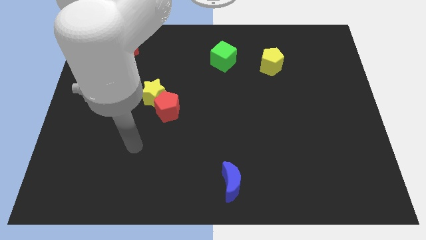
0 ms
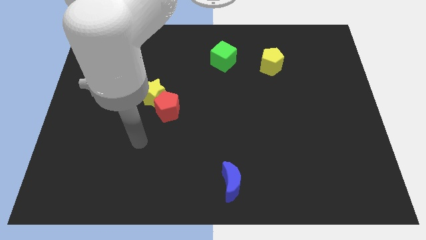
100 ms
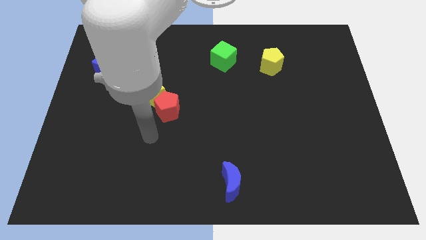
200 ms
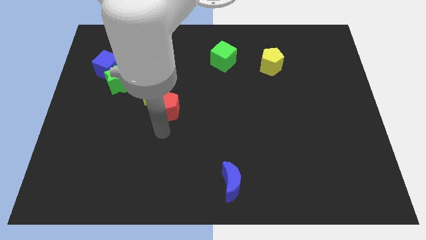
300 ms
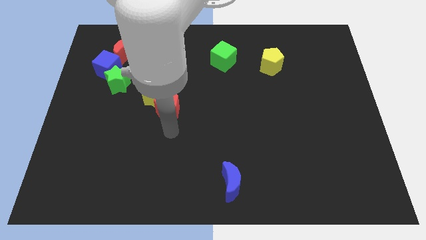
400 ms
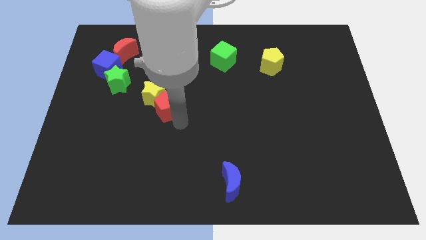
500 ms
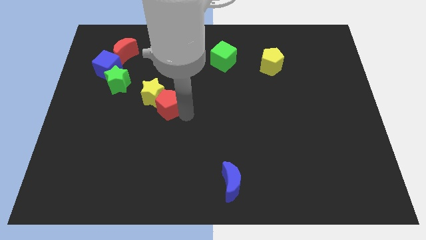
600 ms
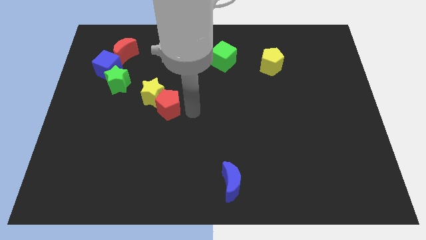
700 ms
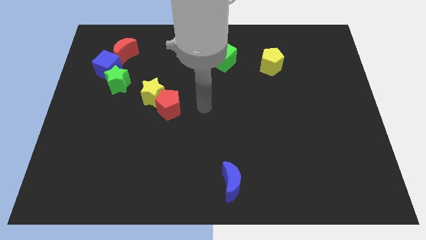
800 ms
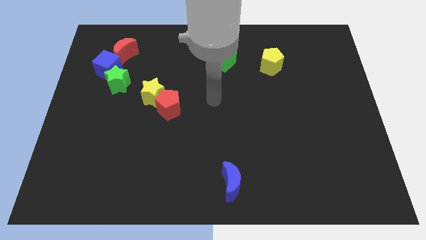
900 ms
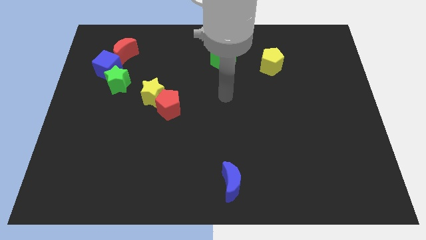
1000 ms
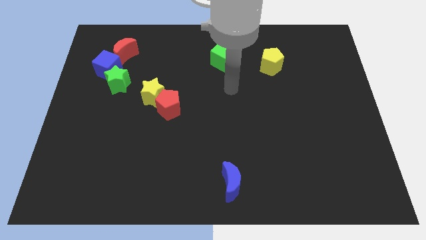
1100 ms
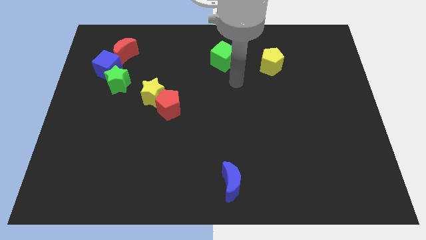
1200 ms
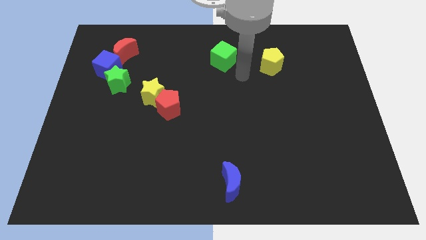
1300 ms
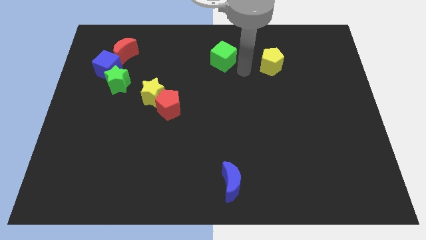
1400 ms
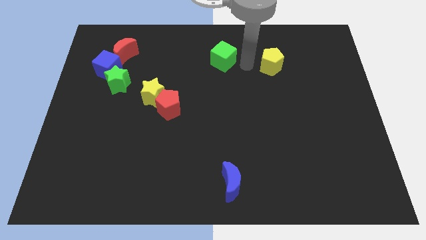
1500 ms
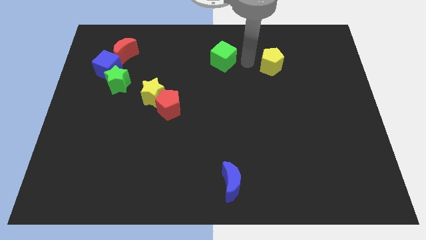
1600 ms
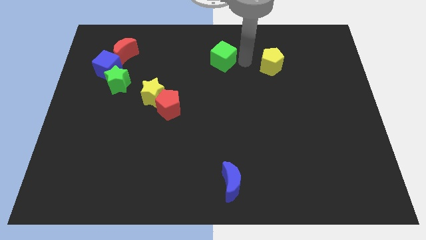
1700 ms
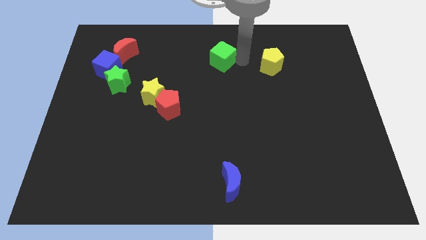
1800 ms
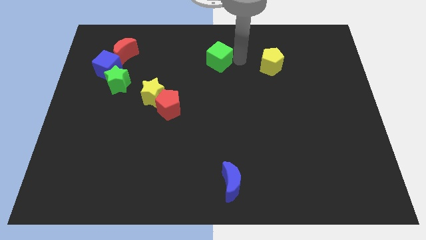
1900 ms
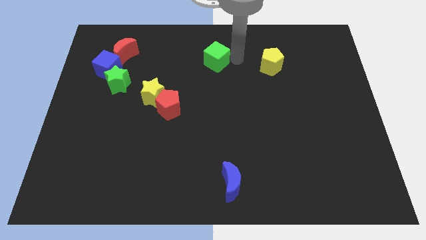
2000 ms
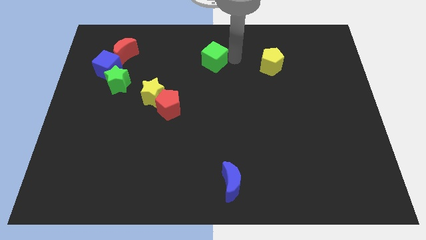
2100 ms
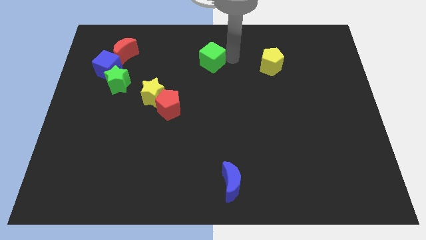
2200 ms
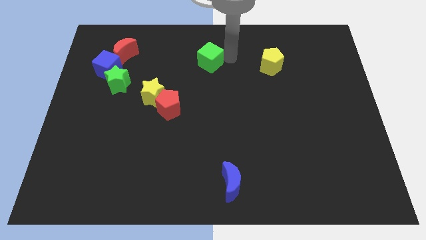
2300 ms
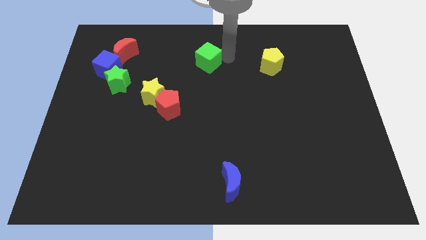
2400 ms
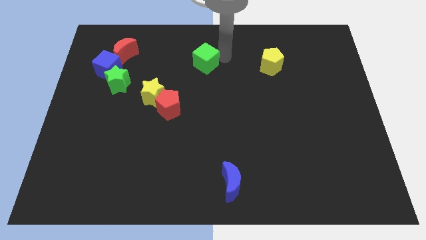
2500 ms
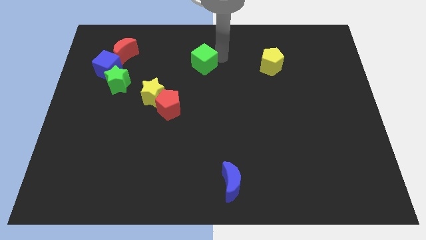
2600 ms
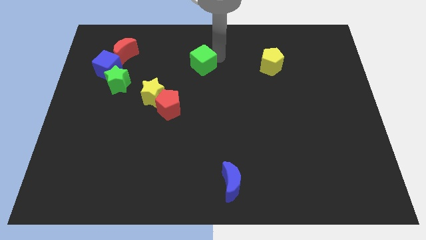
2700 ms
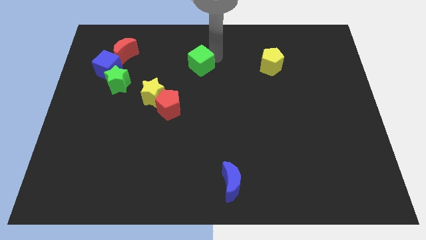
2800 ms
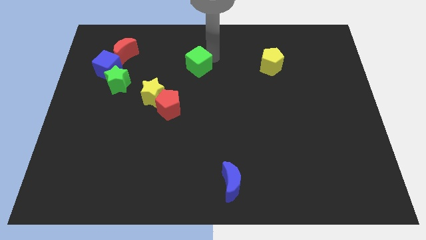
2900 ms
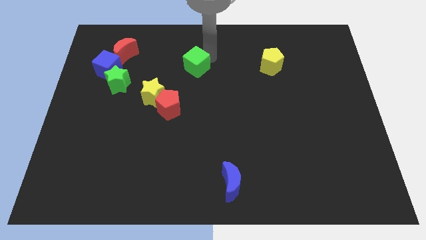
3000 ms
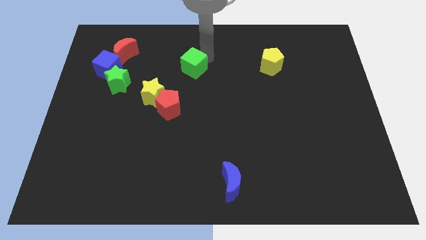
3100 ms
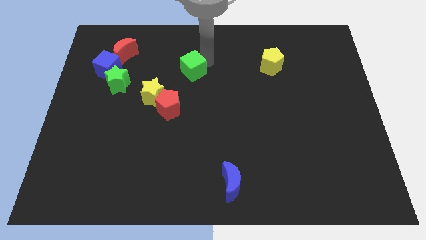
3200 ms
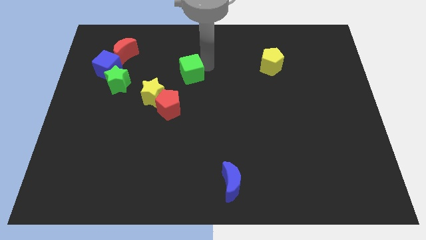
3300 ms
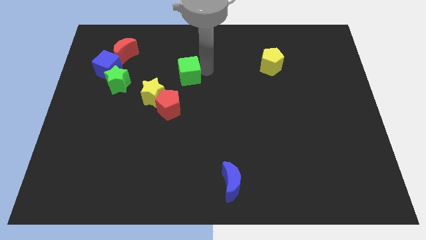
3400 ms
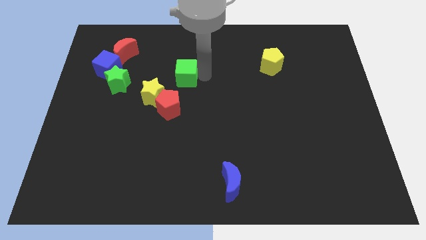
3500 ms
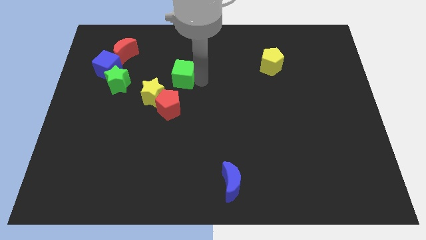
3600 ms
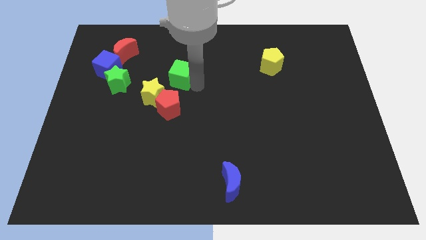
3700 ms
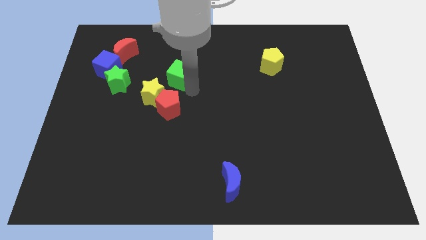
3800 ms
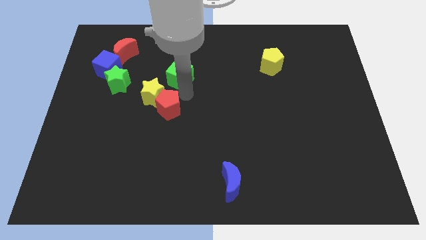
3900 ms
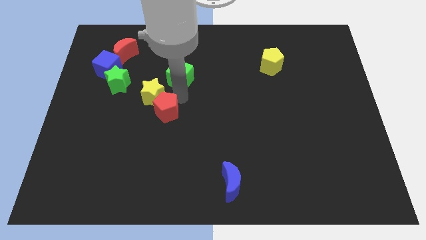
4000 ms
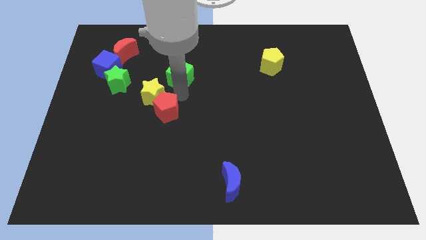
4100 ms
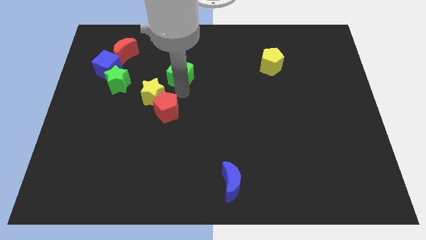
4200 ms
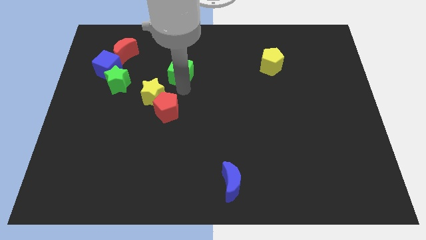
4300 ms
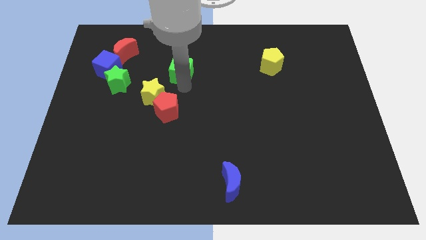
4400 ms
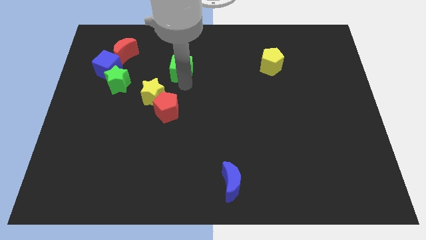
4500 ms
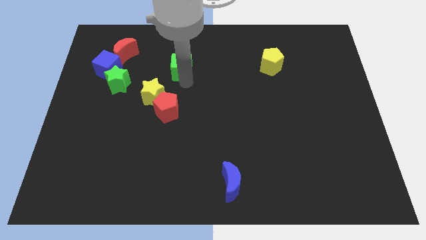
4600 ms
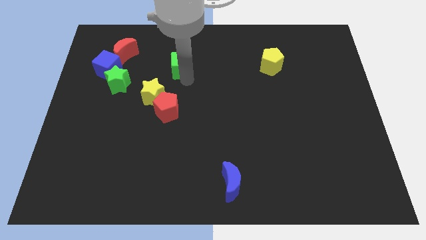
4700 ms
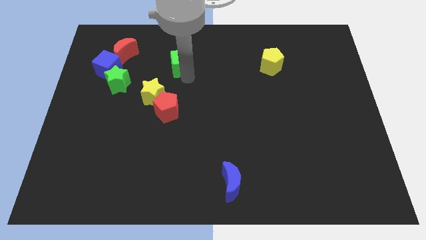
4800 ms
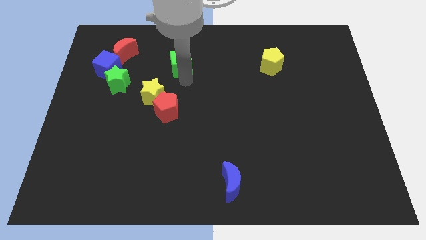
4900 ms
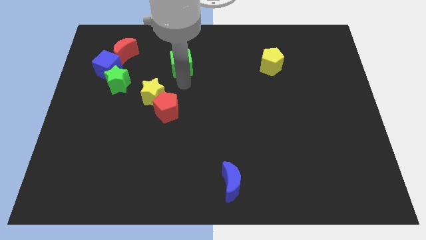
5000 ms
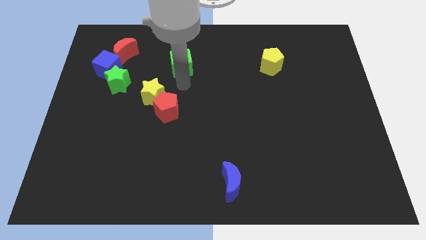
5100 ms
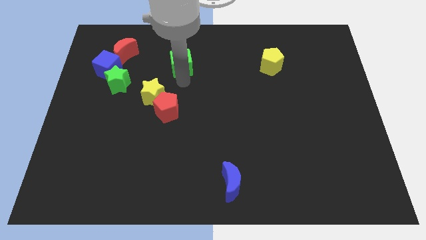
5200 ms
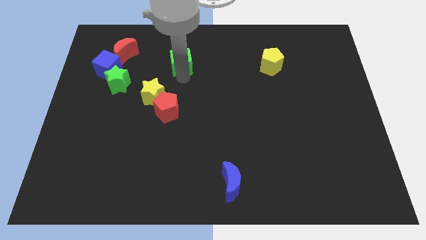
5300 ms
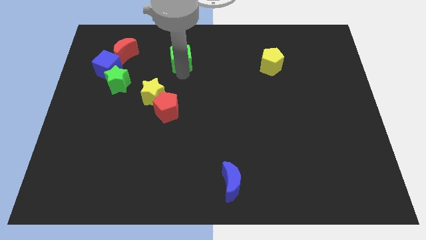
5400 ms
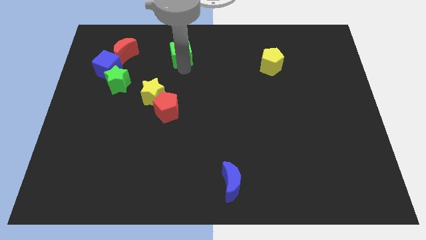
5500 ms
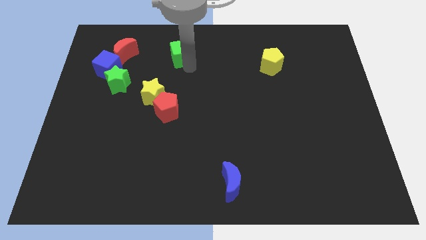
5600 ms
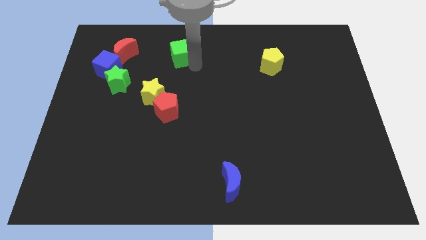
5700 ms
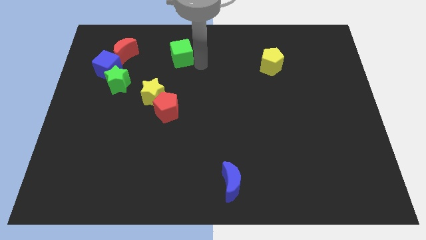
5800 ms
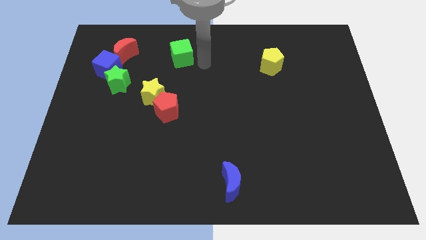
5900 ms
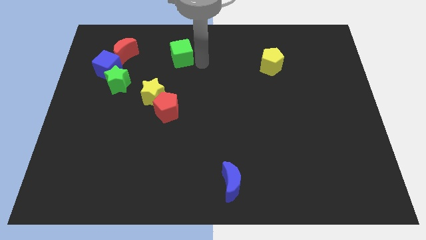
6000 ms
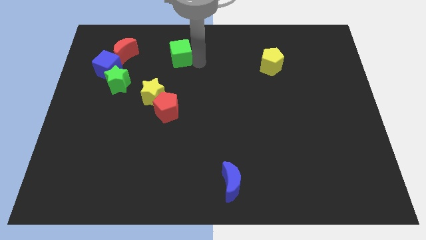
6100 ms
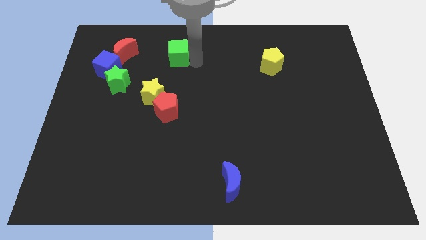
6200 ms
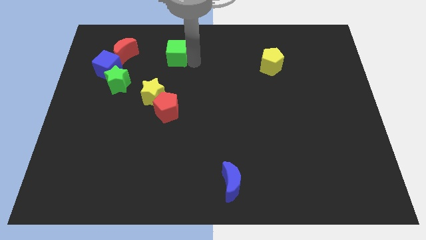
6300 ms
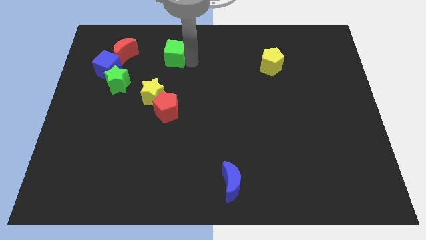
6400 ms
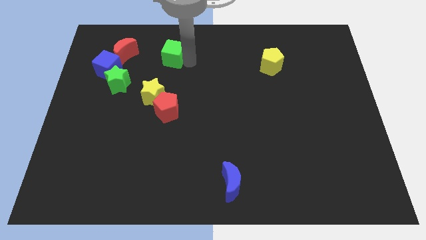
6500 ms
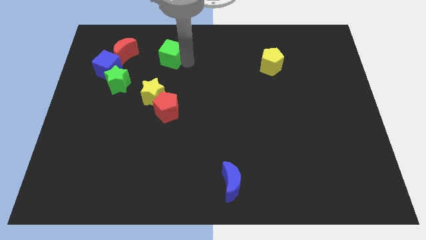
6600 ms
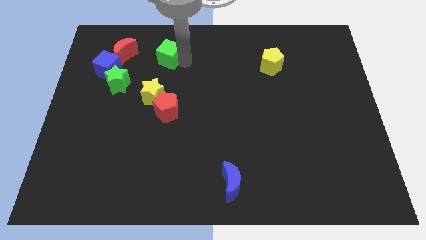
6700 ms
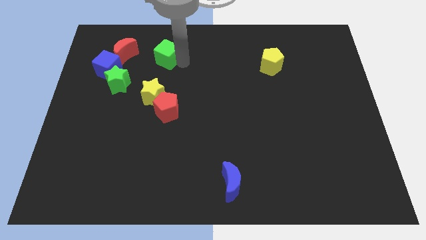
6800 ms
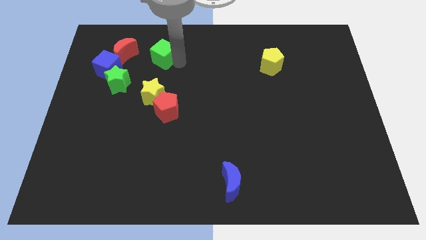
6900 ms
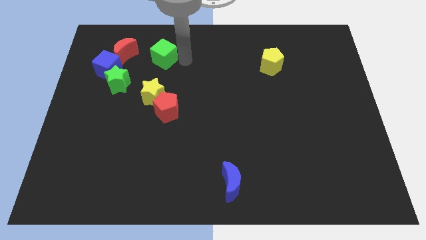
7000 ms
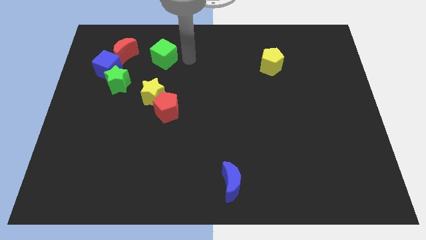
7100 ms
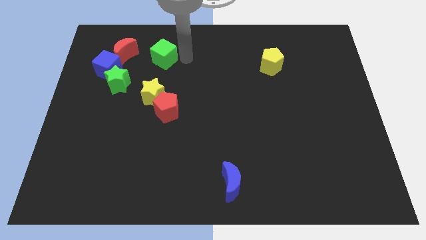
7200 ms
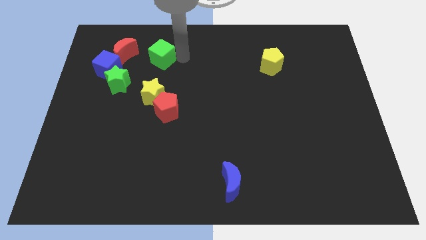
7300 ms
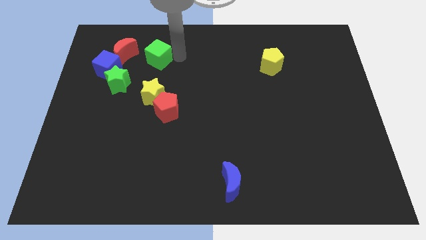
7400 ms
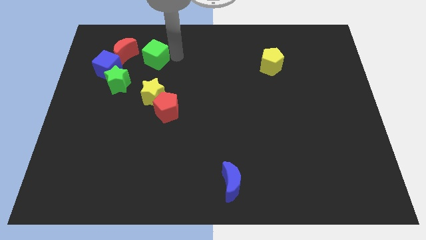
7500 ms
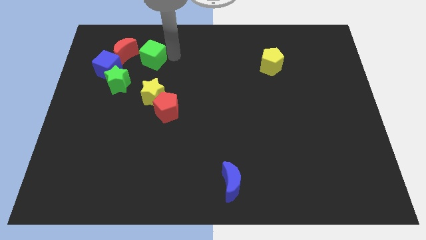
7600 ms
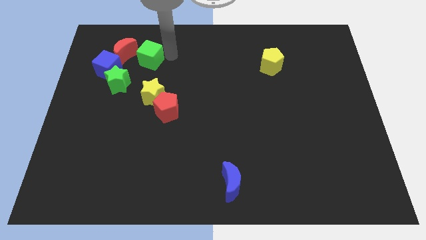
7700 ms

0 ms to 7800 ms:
push the green cube diagonally up and to the right of the blue cube
